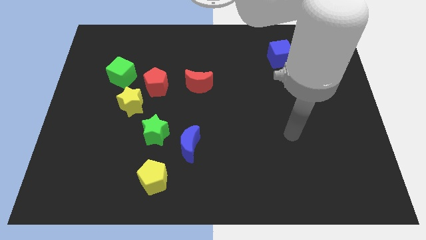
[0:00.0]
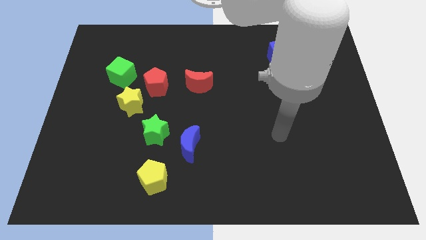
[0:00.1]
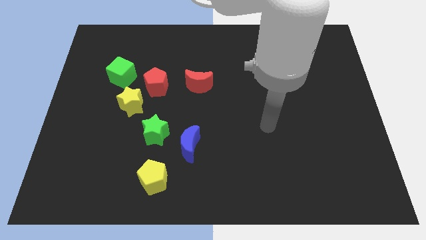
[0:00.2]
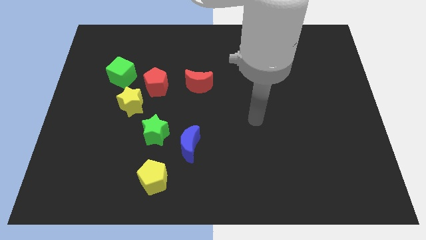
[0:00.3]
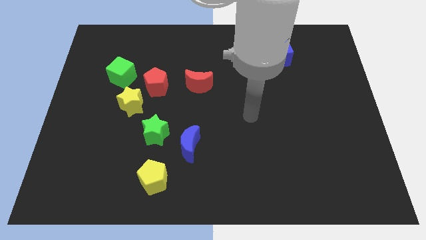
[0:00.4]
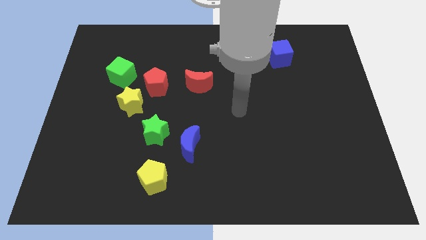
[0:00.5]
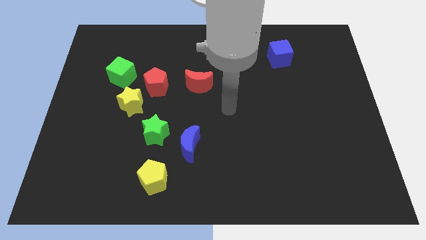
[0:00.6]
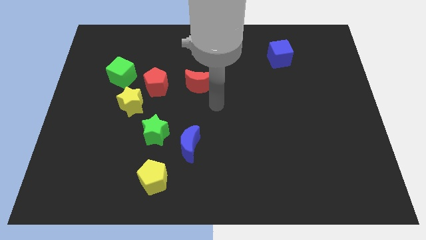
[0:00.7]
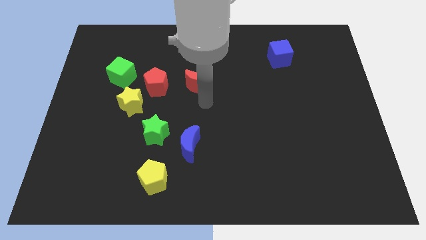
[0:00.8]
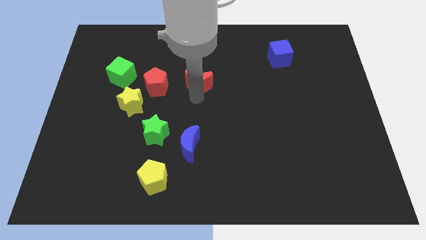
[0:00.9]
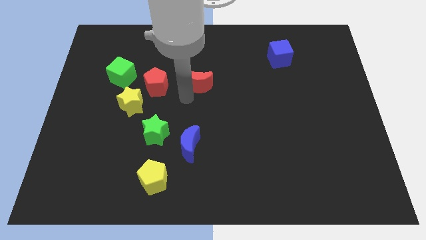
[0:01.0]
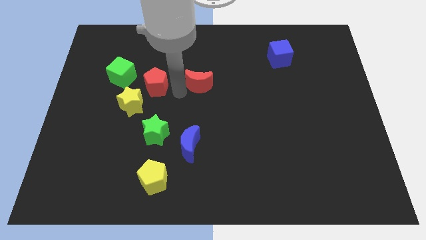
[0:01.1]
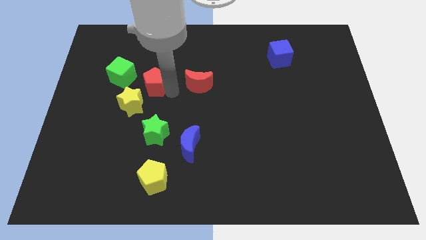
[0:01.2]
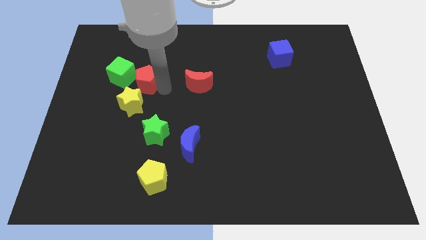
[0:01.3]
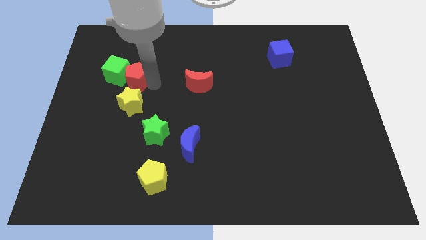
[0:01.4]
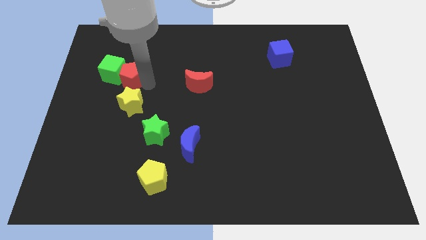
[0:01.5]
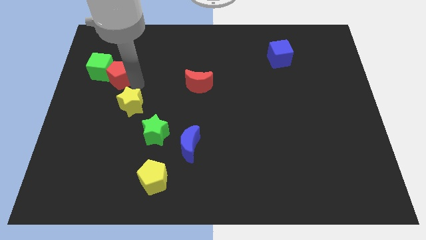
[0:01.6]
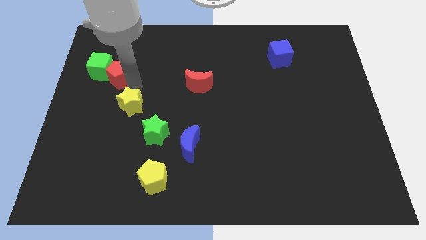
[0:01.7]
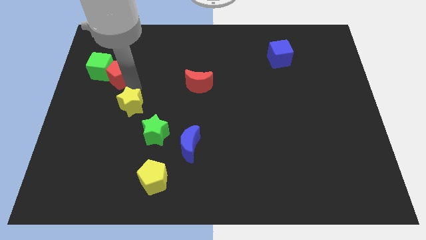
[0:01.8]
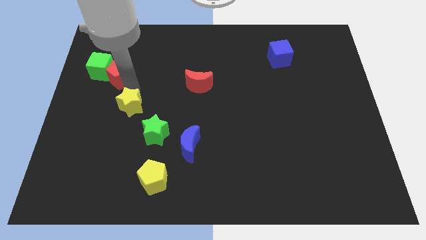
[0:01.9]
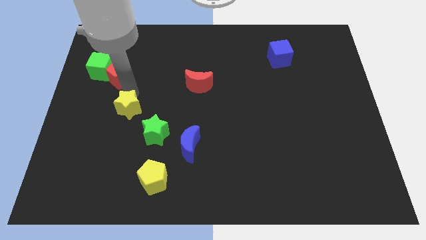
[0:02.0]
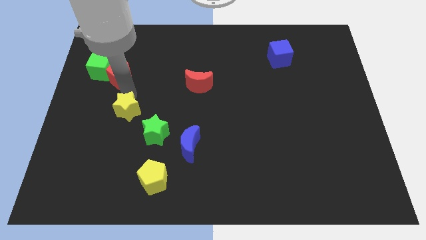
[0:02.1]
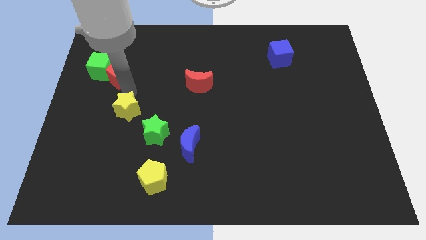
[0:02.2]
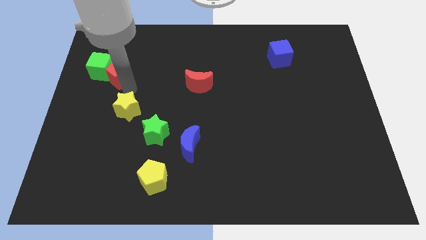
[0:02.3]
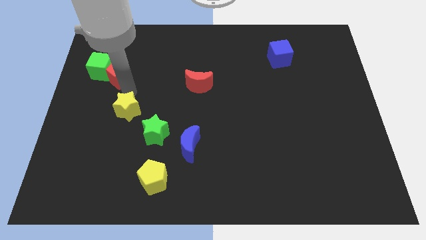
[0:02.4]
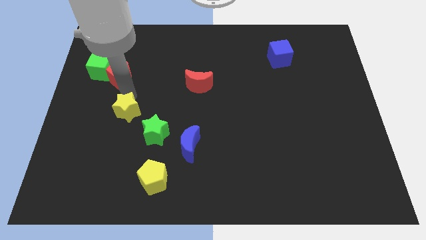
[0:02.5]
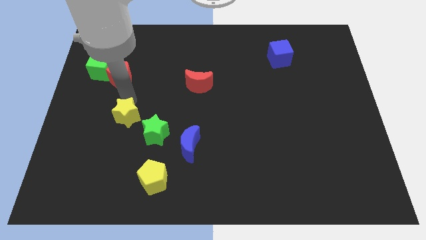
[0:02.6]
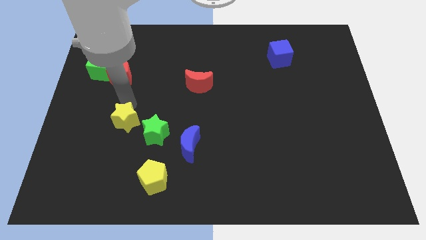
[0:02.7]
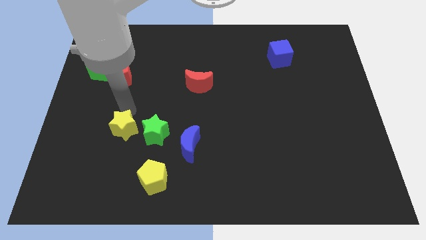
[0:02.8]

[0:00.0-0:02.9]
push the yellow star a bit downwards

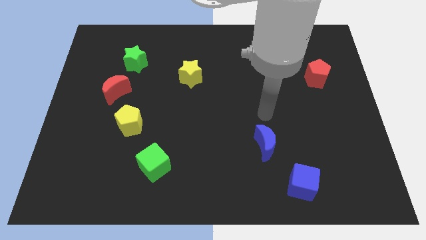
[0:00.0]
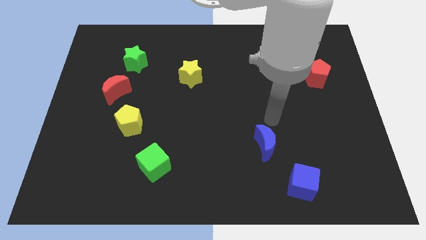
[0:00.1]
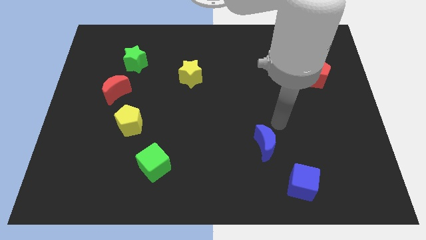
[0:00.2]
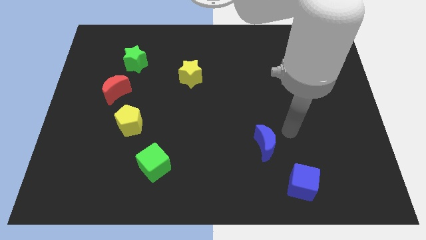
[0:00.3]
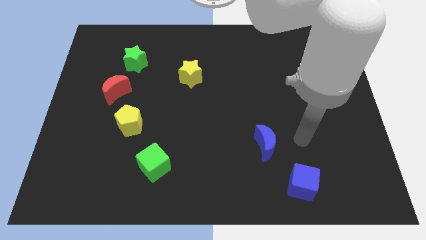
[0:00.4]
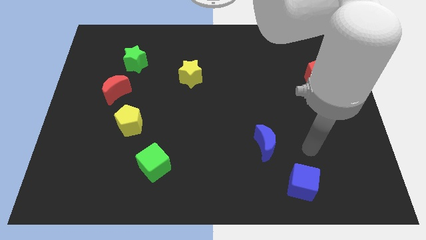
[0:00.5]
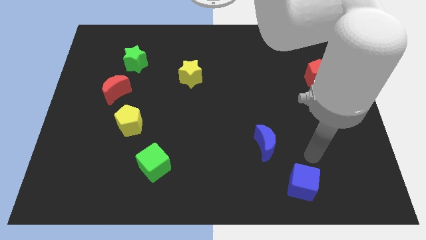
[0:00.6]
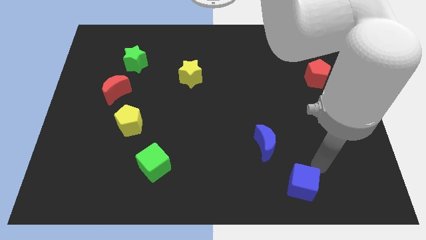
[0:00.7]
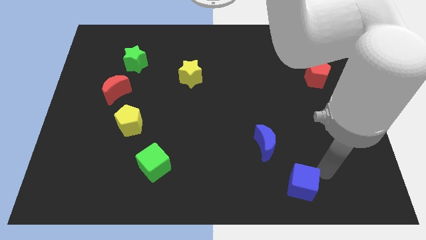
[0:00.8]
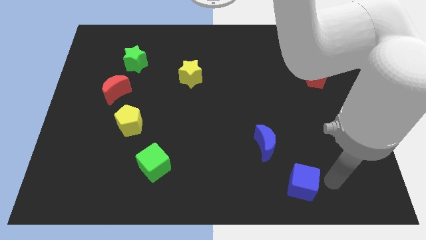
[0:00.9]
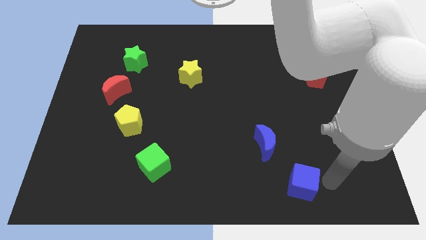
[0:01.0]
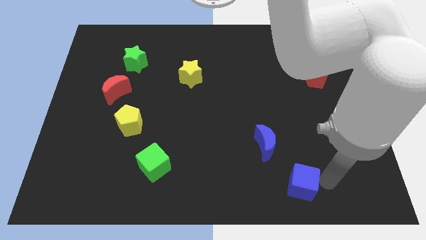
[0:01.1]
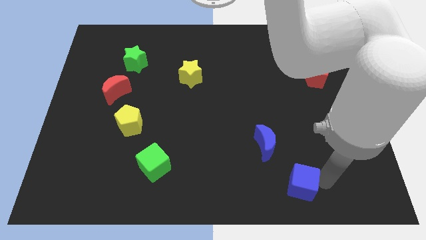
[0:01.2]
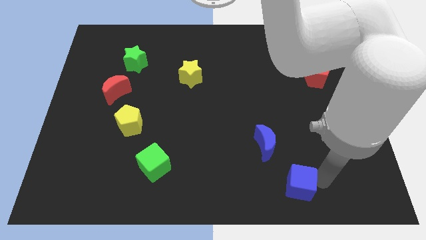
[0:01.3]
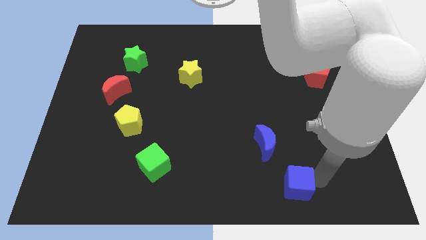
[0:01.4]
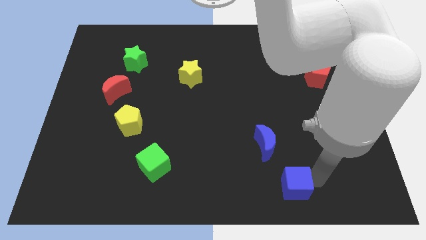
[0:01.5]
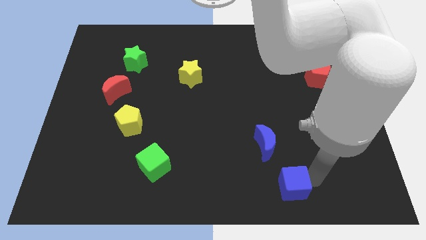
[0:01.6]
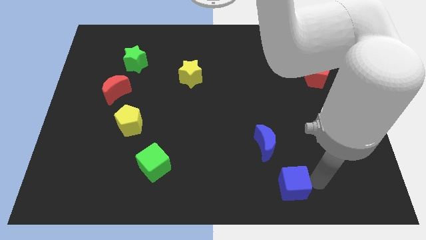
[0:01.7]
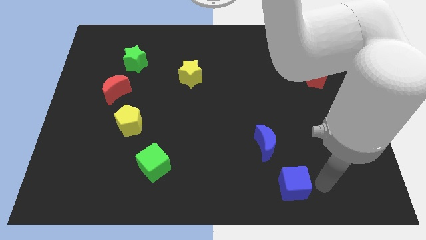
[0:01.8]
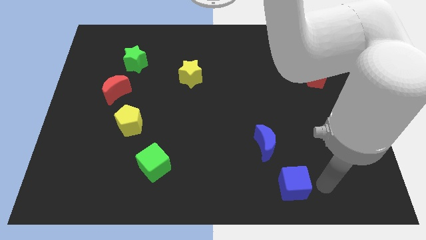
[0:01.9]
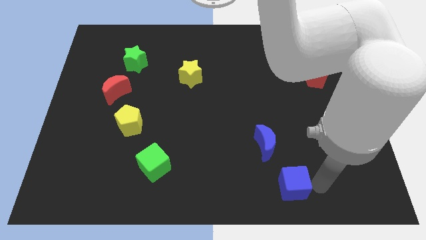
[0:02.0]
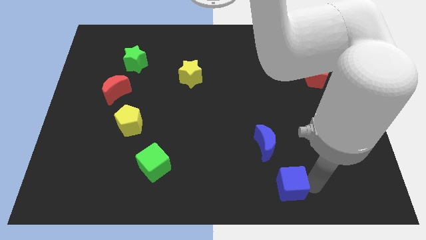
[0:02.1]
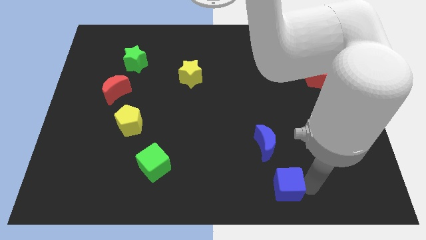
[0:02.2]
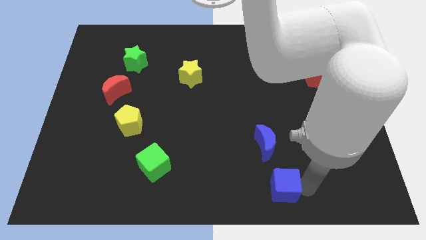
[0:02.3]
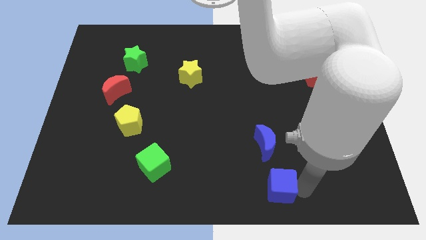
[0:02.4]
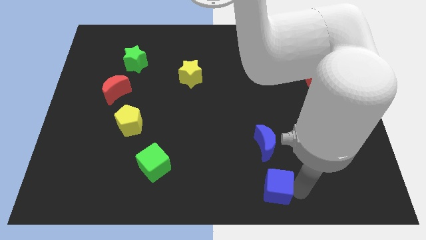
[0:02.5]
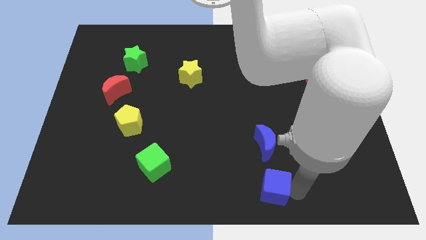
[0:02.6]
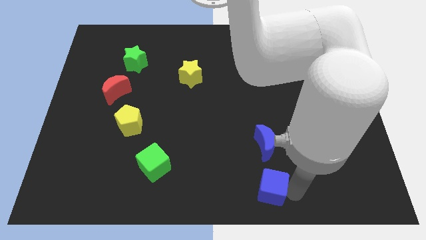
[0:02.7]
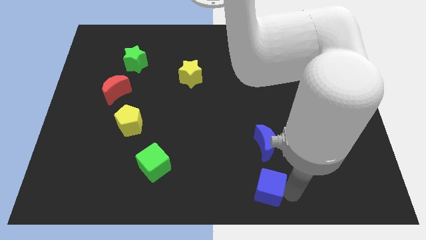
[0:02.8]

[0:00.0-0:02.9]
push the blue cube a bit left

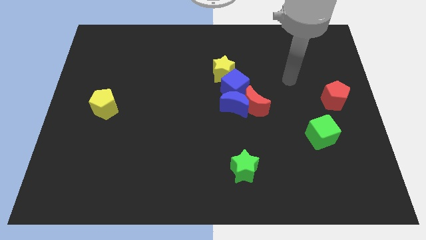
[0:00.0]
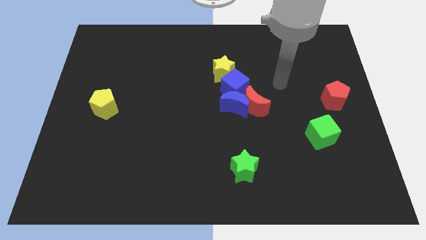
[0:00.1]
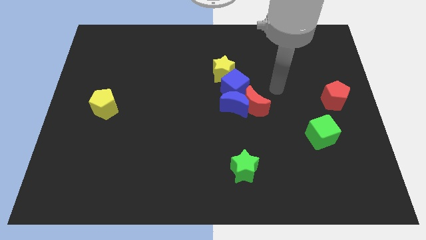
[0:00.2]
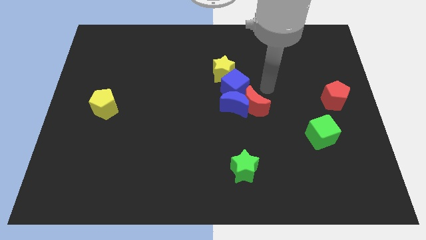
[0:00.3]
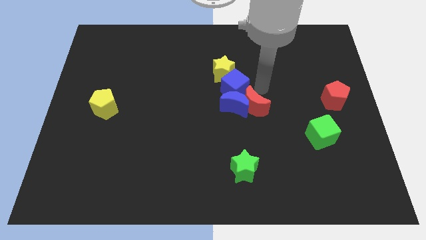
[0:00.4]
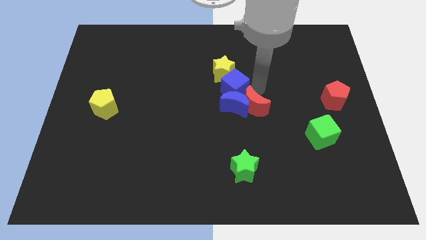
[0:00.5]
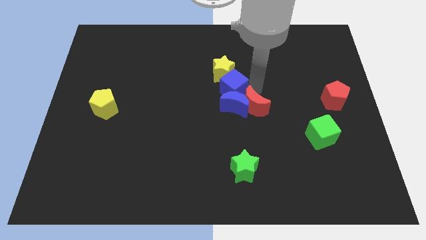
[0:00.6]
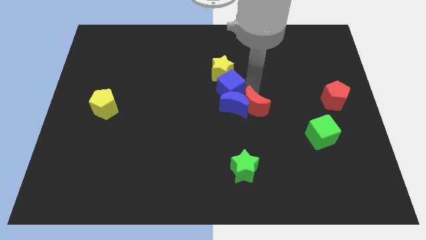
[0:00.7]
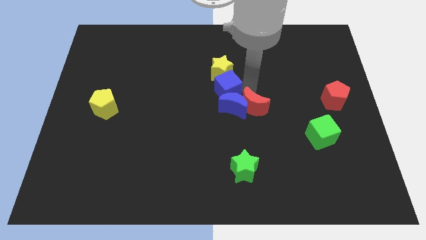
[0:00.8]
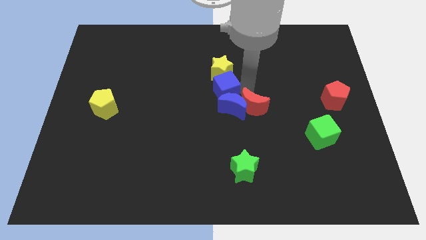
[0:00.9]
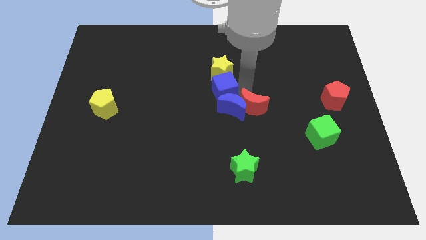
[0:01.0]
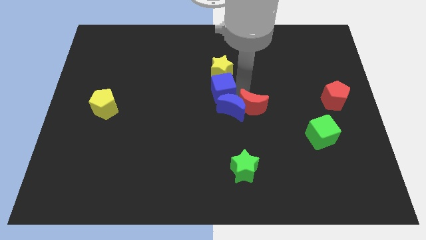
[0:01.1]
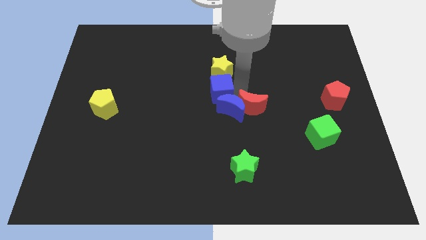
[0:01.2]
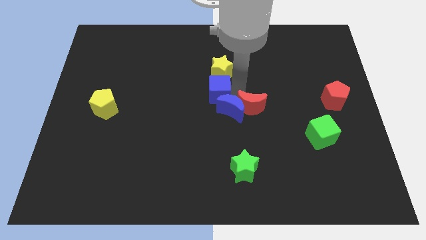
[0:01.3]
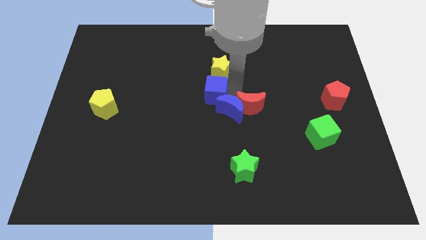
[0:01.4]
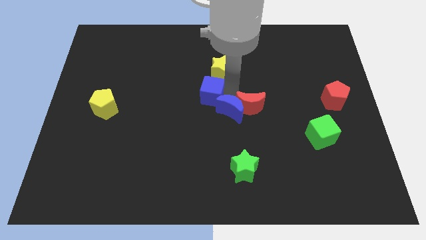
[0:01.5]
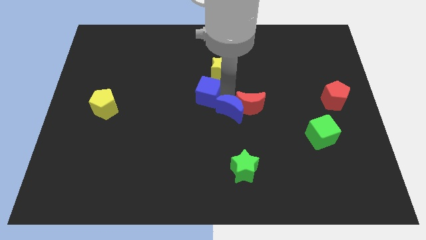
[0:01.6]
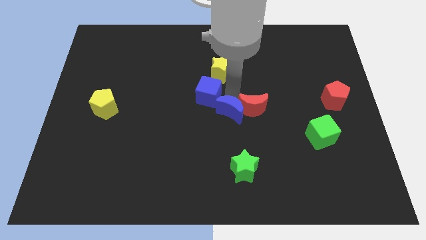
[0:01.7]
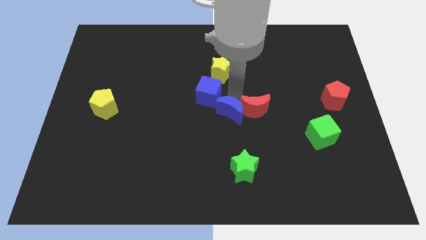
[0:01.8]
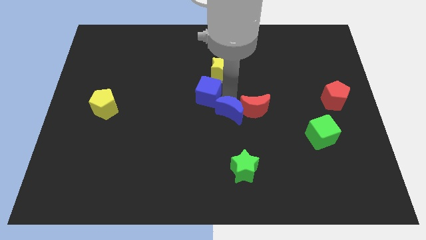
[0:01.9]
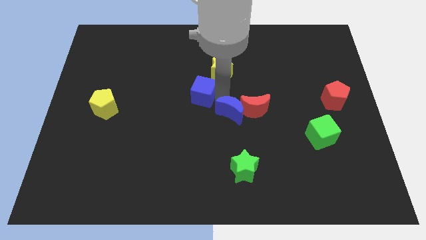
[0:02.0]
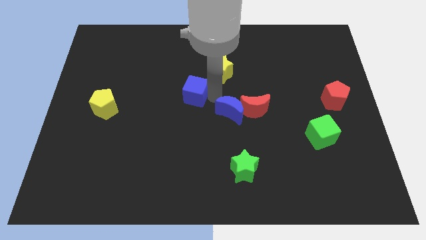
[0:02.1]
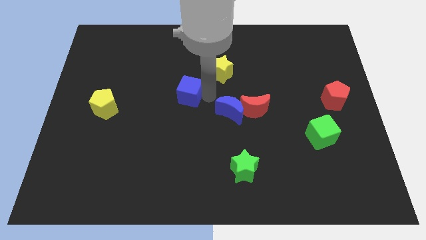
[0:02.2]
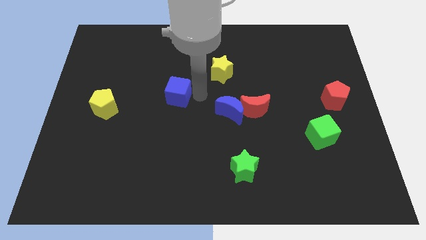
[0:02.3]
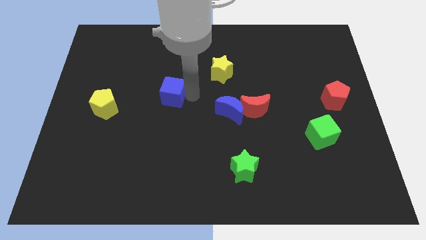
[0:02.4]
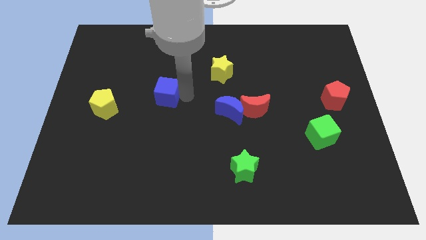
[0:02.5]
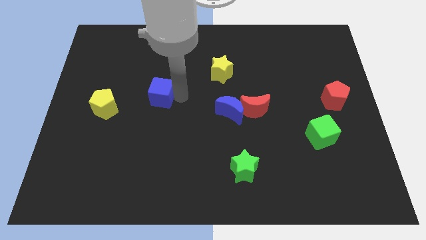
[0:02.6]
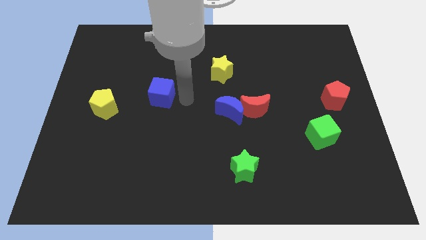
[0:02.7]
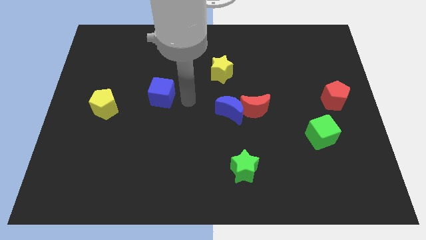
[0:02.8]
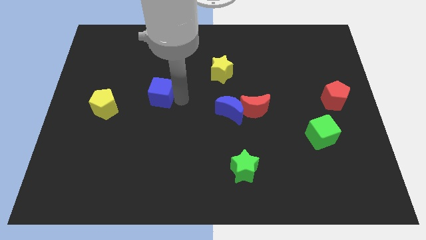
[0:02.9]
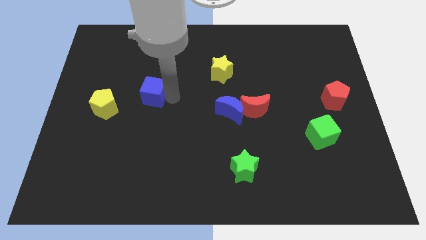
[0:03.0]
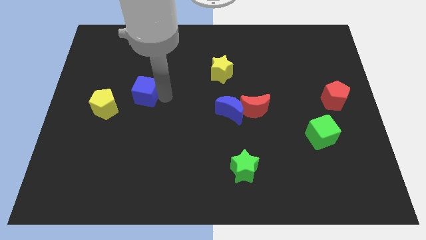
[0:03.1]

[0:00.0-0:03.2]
slide the blue cube left
